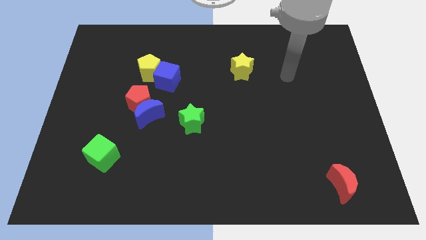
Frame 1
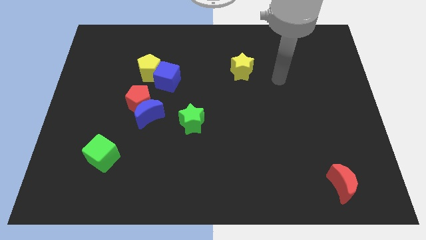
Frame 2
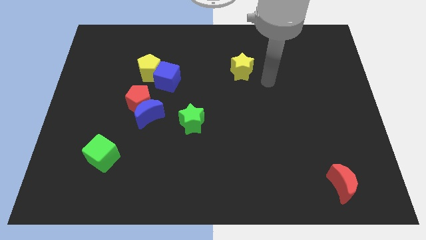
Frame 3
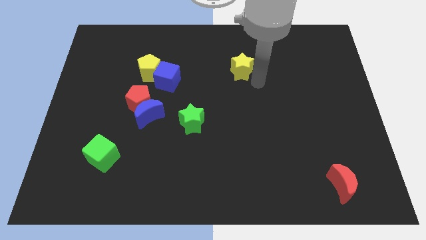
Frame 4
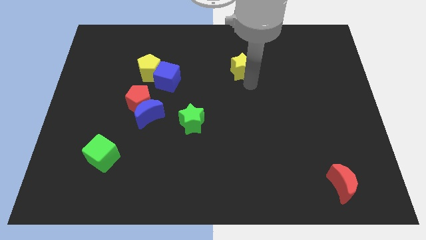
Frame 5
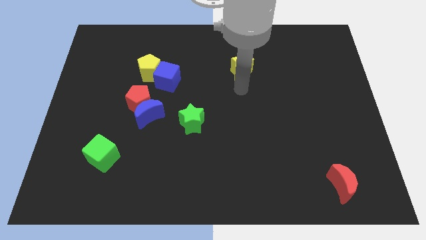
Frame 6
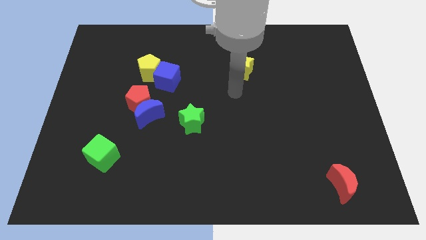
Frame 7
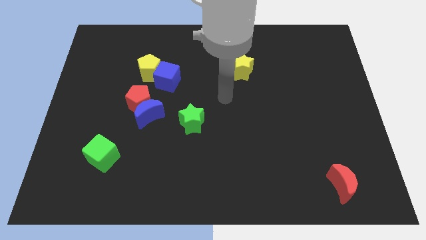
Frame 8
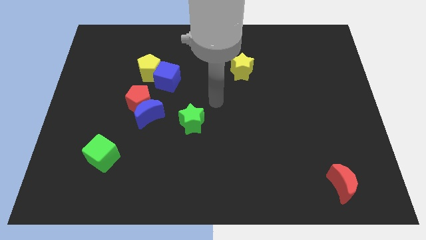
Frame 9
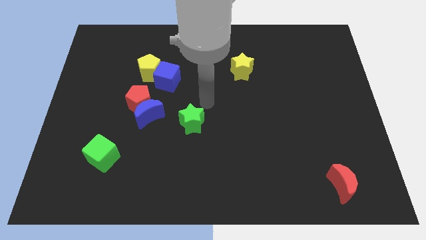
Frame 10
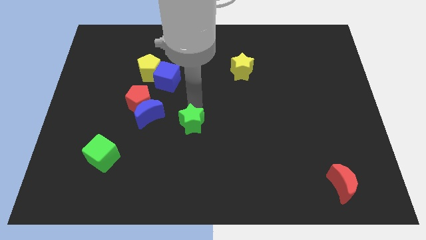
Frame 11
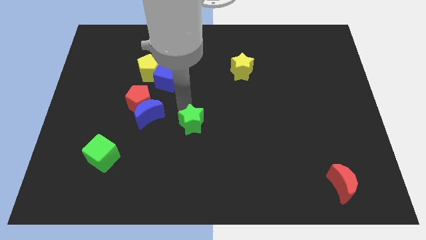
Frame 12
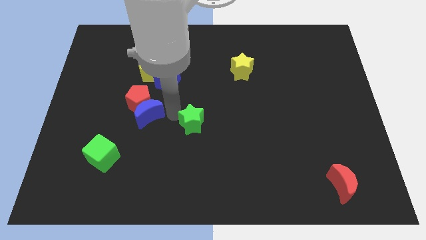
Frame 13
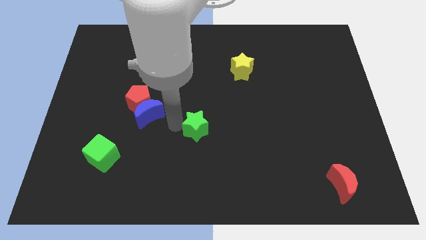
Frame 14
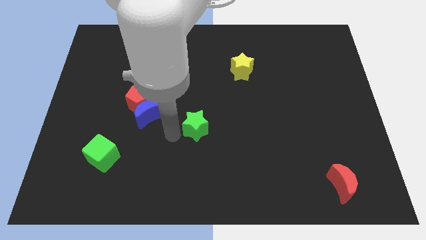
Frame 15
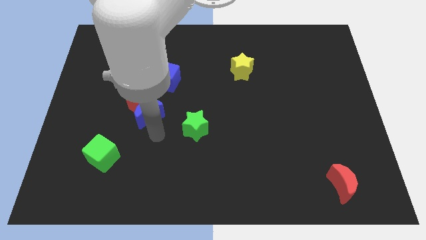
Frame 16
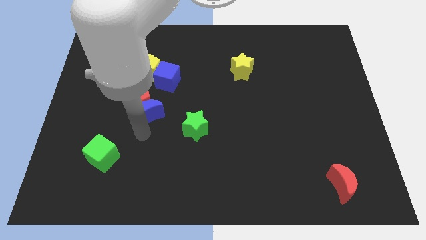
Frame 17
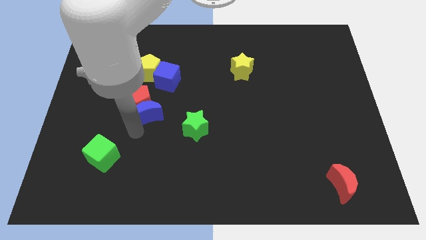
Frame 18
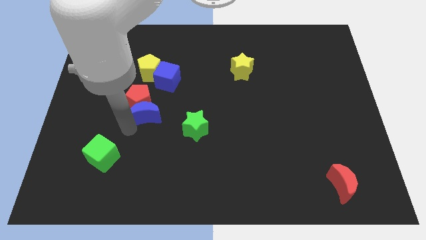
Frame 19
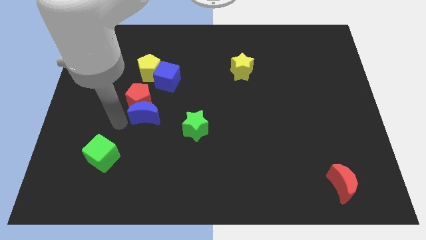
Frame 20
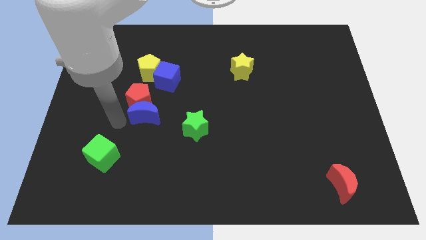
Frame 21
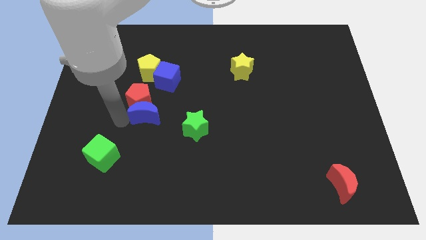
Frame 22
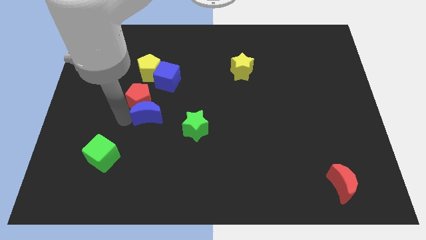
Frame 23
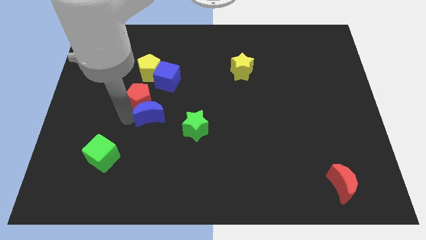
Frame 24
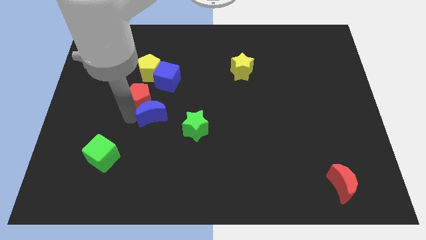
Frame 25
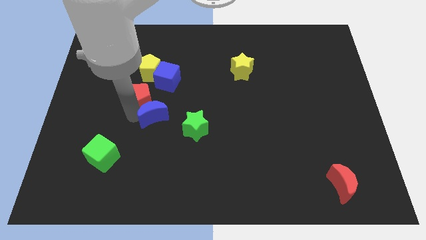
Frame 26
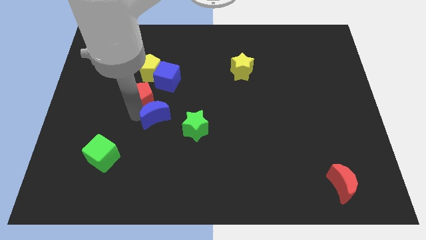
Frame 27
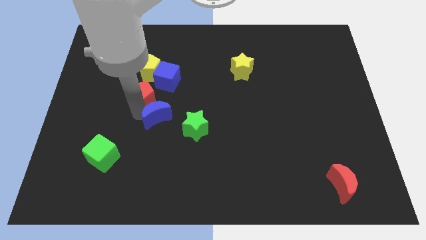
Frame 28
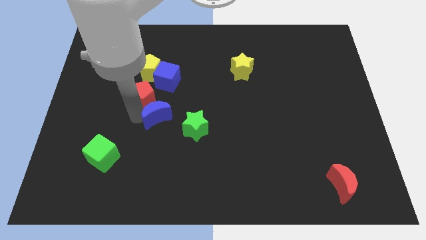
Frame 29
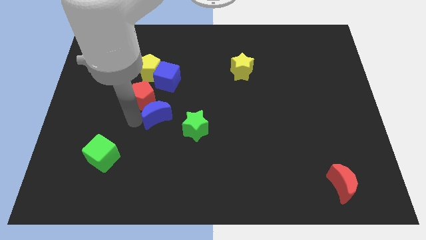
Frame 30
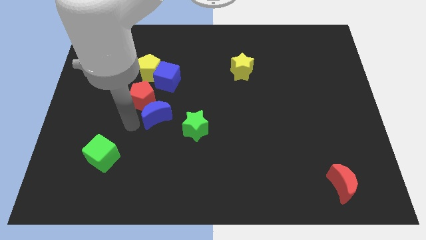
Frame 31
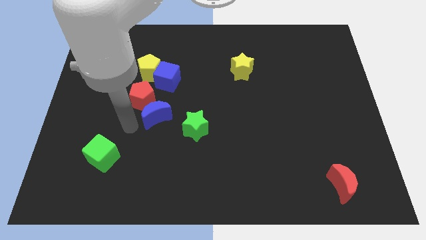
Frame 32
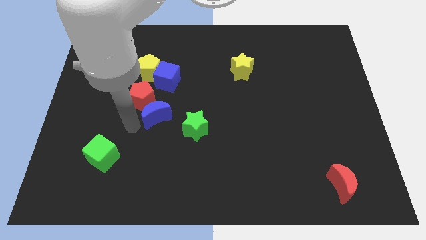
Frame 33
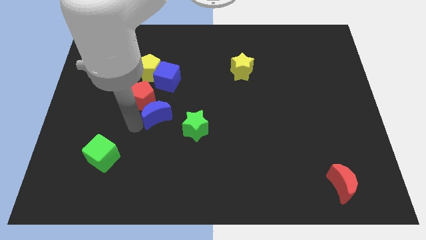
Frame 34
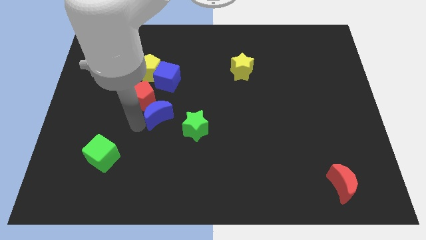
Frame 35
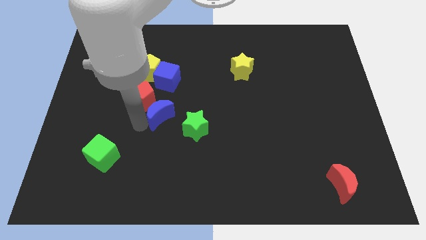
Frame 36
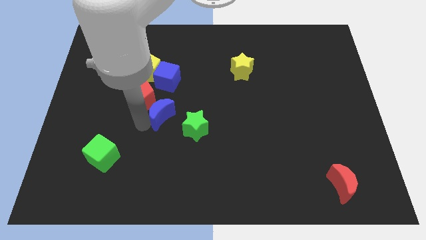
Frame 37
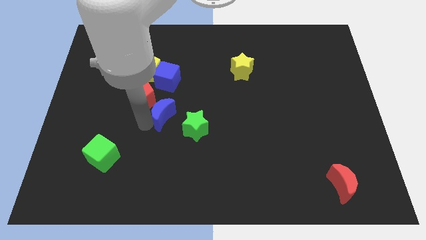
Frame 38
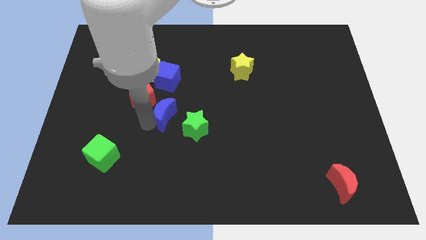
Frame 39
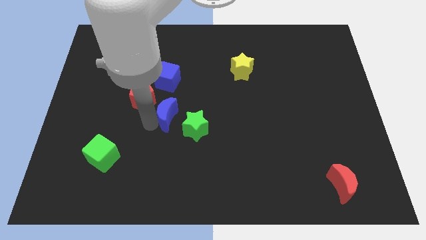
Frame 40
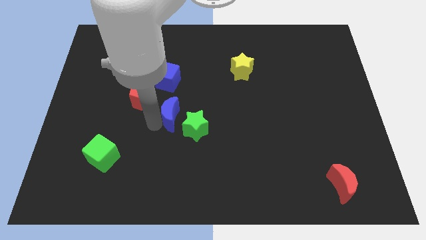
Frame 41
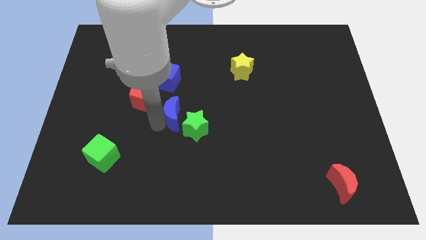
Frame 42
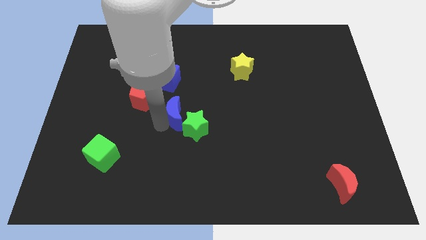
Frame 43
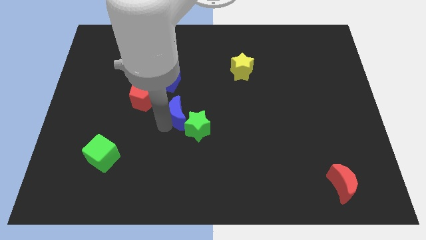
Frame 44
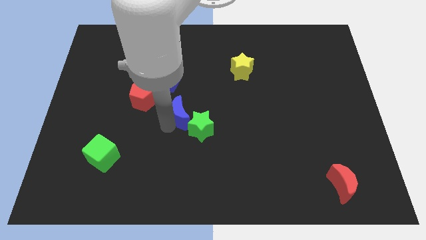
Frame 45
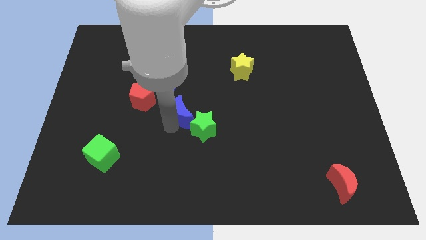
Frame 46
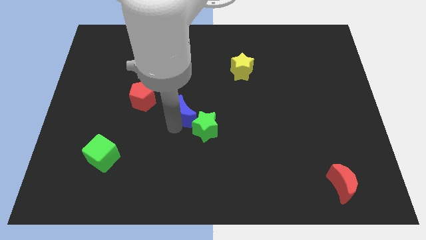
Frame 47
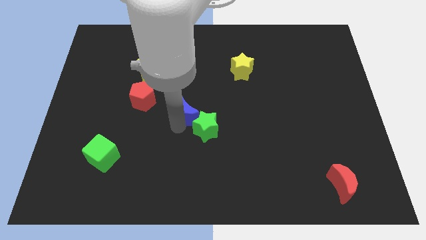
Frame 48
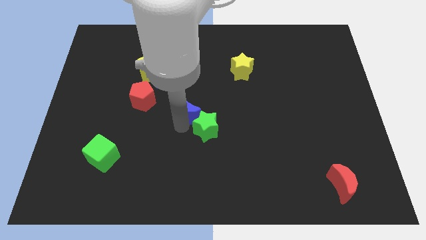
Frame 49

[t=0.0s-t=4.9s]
move the blue moon to the bottom right of the blue cube

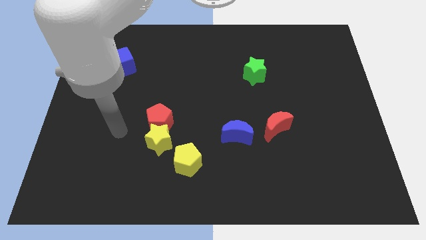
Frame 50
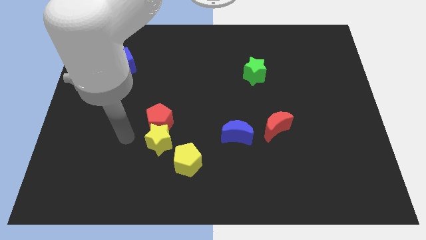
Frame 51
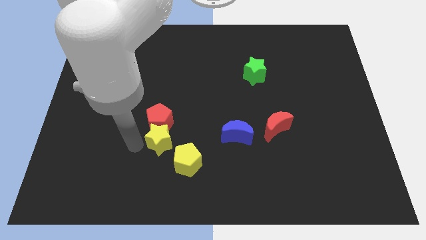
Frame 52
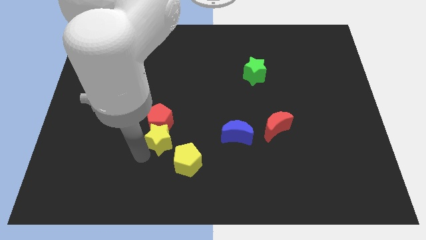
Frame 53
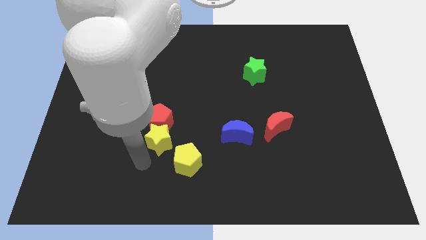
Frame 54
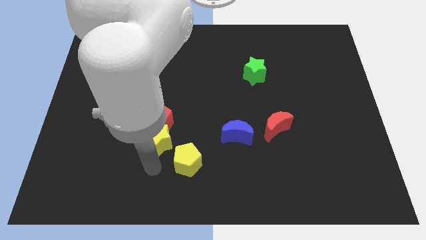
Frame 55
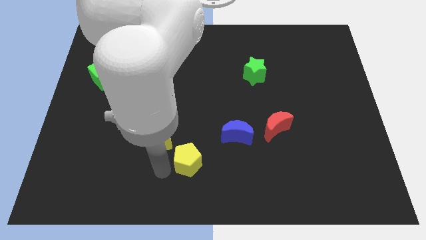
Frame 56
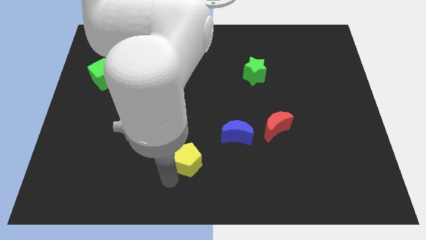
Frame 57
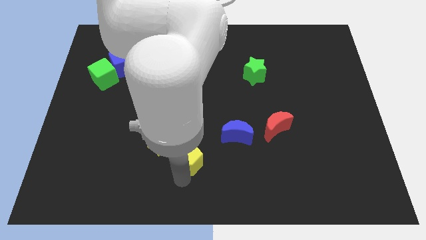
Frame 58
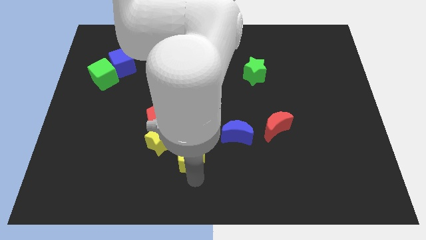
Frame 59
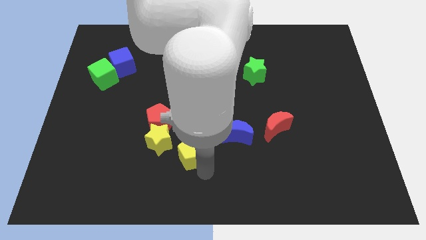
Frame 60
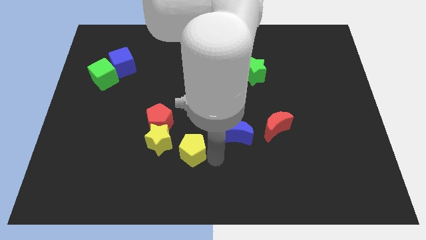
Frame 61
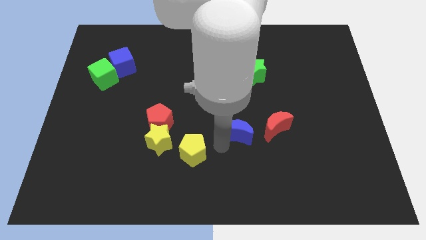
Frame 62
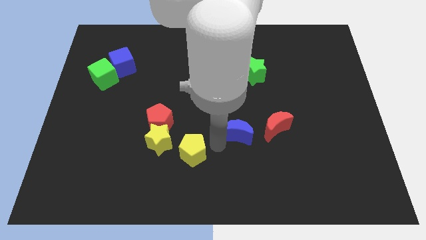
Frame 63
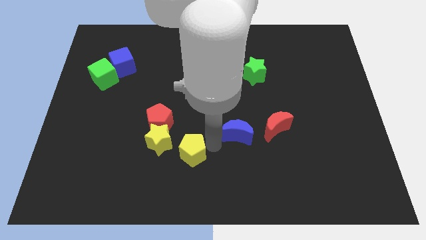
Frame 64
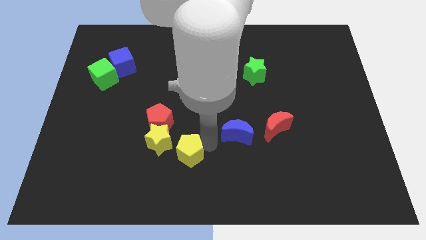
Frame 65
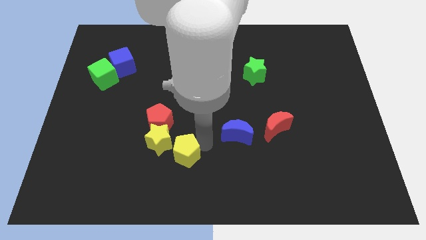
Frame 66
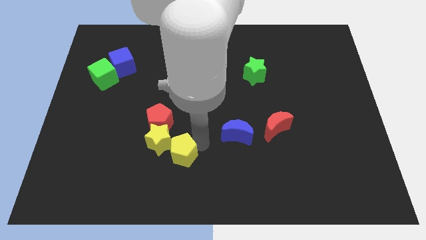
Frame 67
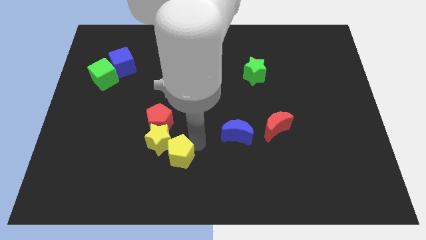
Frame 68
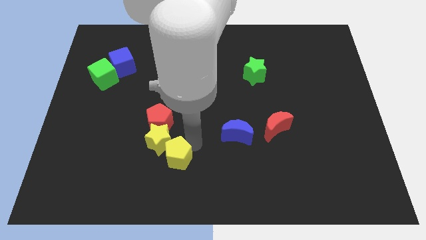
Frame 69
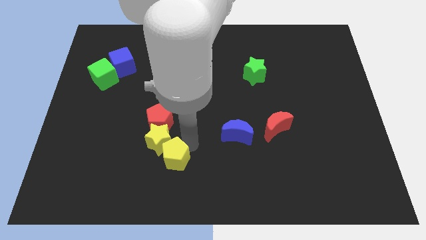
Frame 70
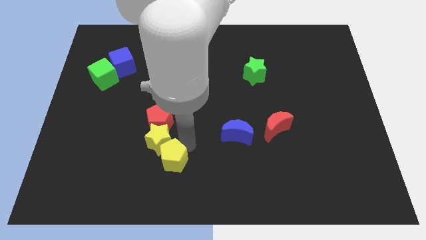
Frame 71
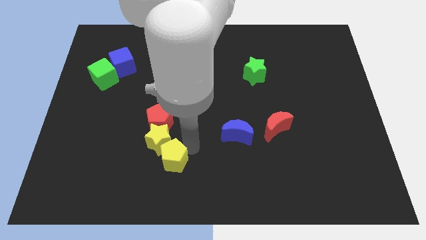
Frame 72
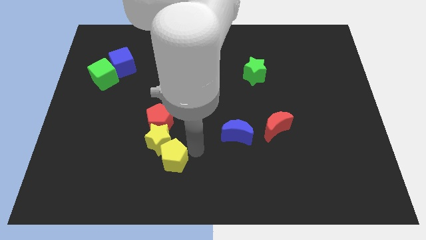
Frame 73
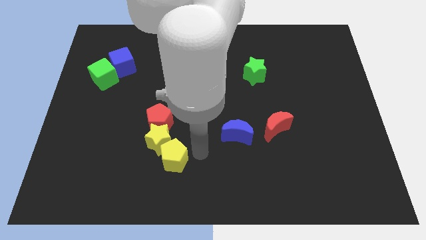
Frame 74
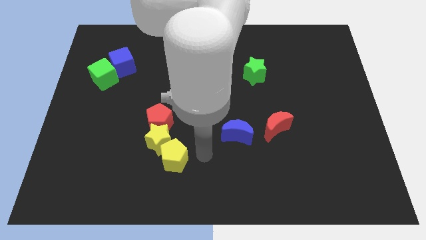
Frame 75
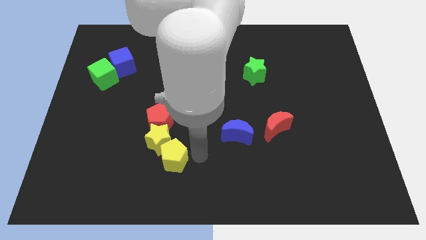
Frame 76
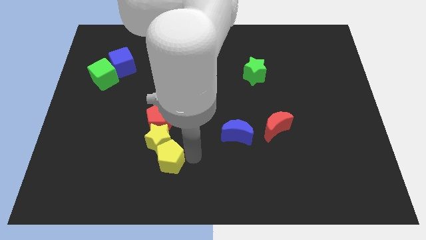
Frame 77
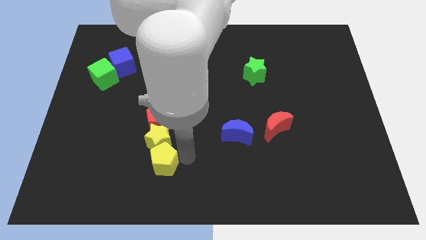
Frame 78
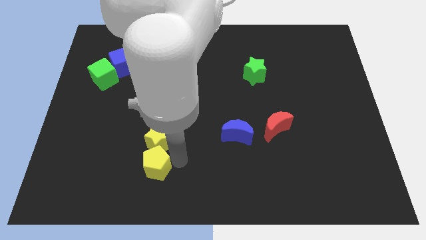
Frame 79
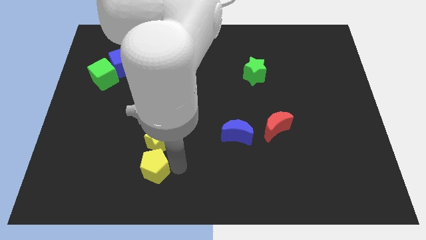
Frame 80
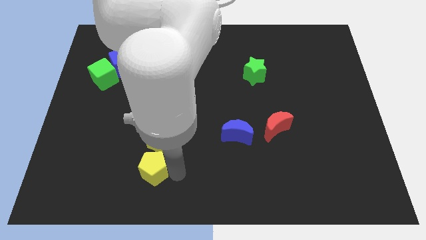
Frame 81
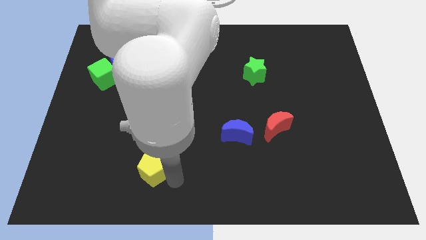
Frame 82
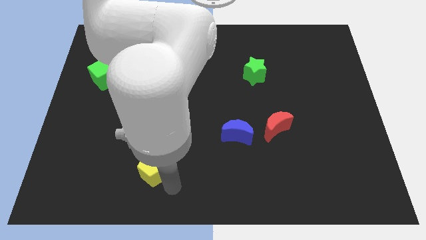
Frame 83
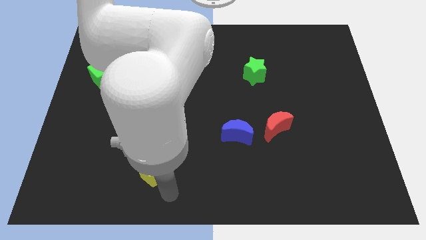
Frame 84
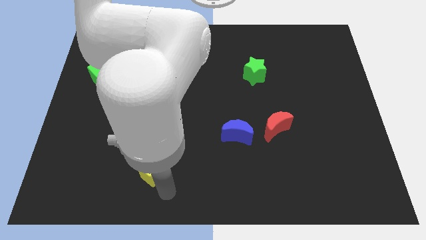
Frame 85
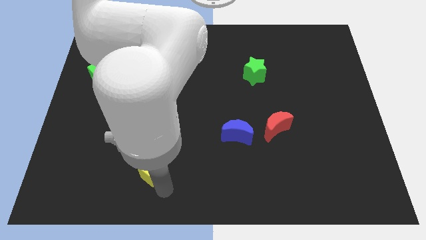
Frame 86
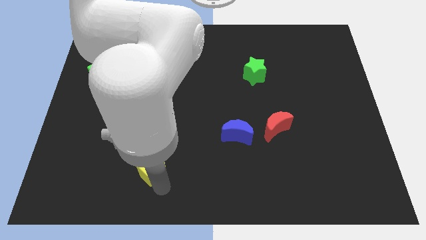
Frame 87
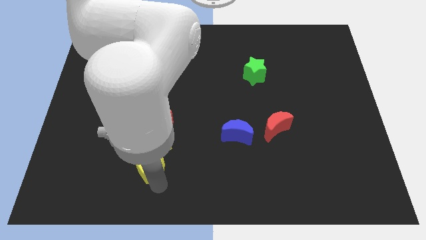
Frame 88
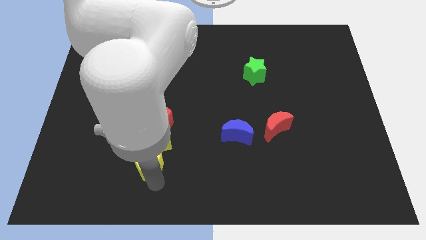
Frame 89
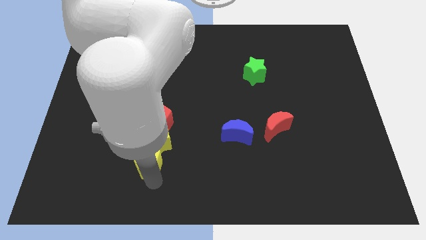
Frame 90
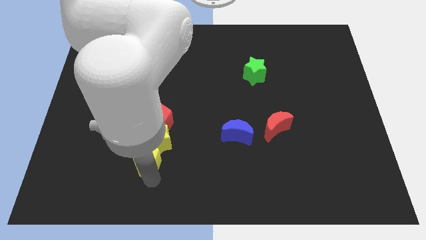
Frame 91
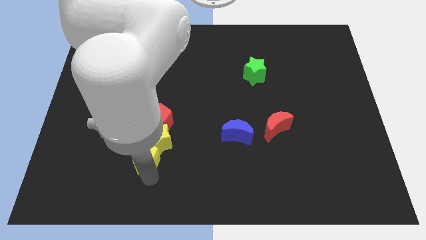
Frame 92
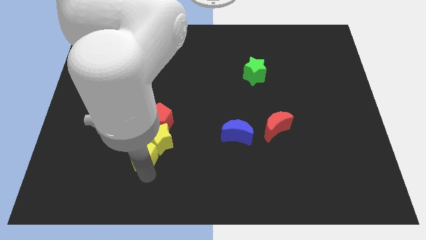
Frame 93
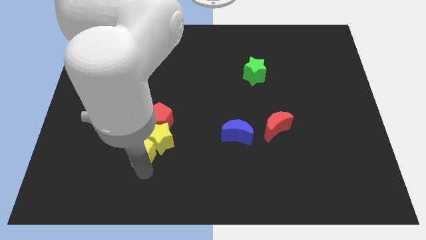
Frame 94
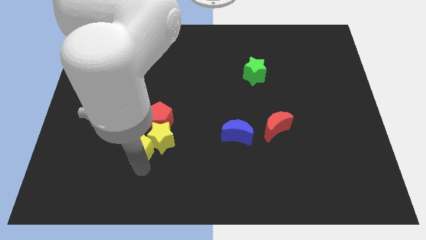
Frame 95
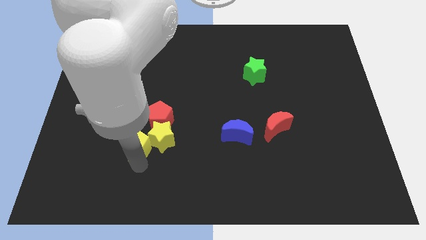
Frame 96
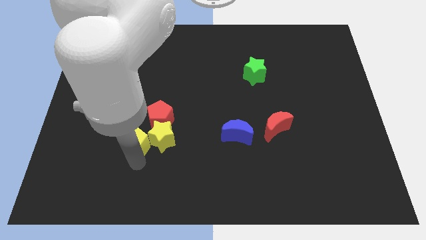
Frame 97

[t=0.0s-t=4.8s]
move the yellow pentagon diagonally up and to the left of the yellow star
